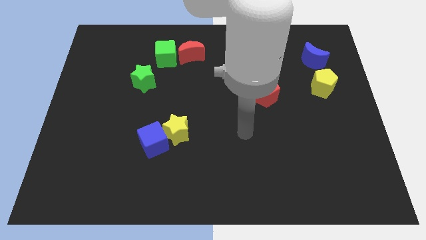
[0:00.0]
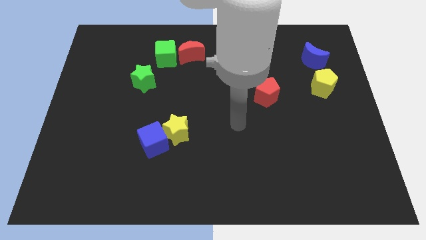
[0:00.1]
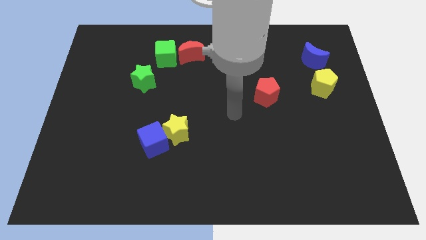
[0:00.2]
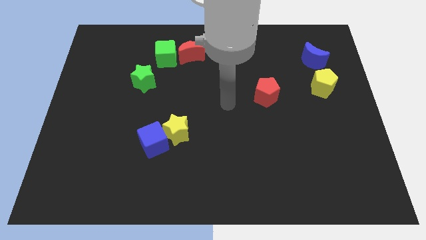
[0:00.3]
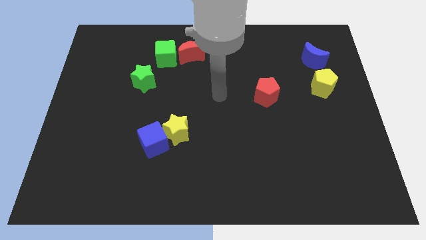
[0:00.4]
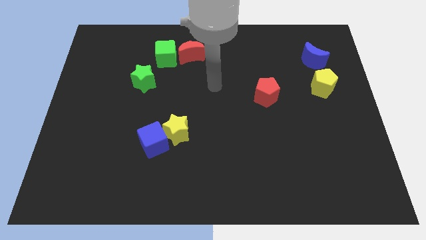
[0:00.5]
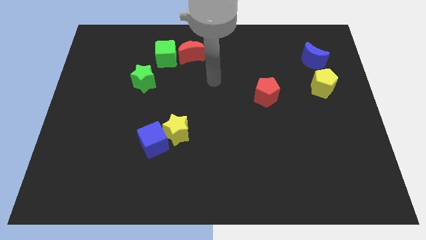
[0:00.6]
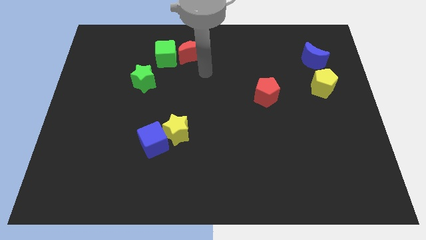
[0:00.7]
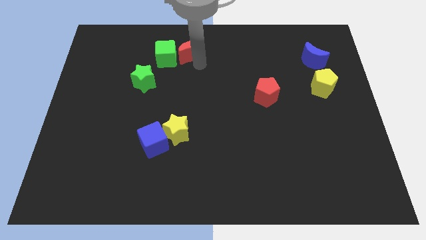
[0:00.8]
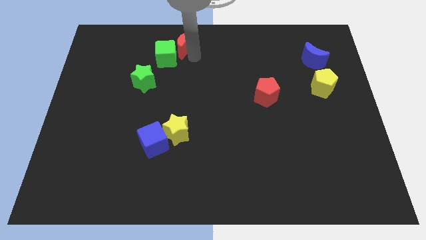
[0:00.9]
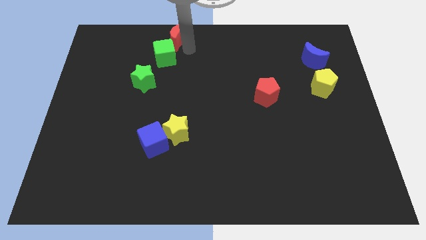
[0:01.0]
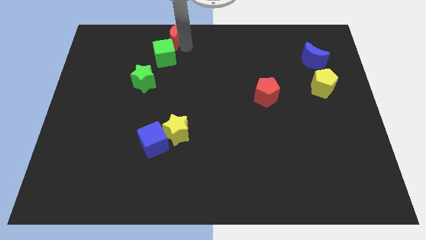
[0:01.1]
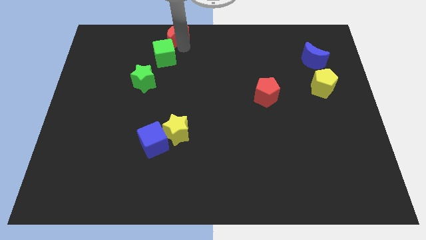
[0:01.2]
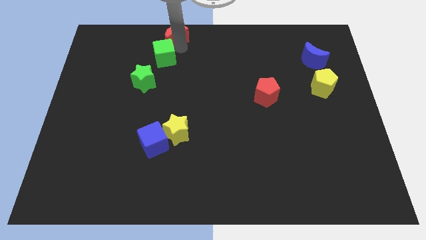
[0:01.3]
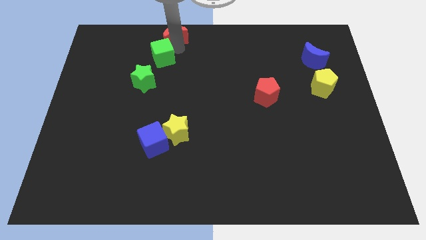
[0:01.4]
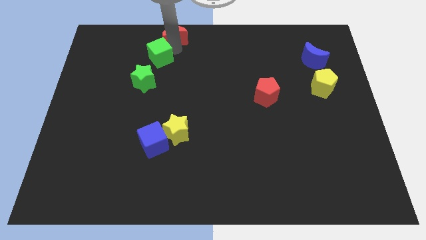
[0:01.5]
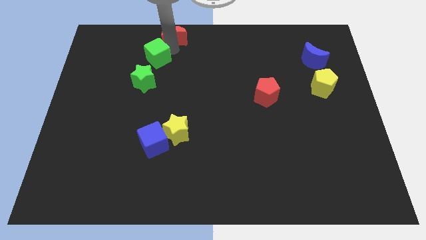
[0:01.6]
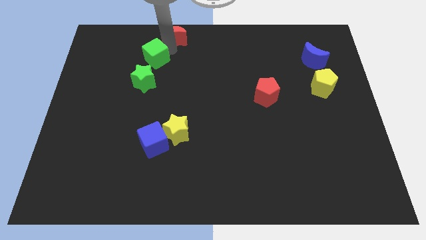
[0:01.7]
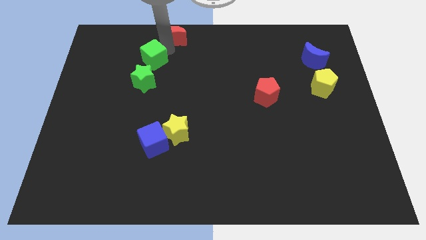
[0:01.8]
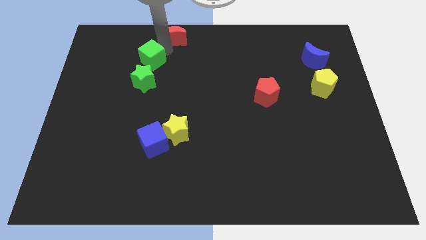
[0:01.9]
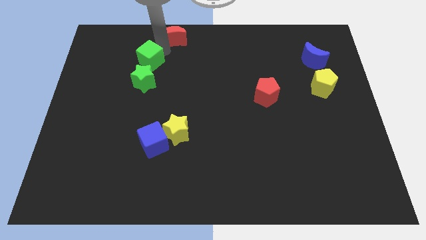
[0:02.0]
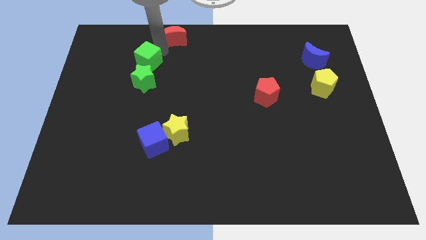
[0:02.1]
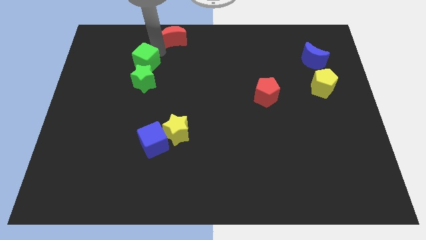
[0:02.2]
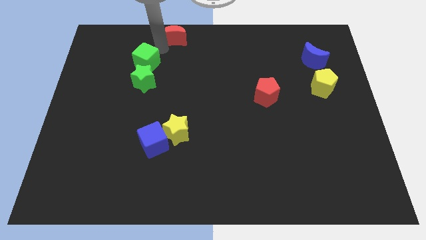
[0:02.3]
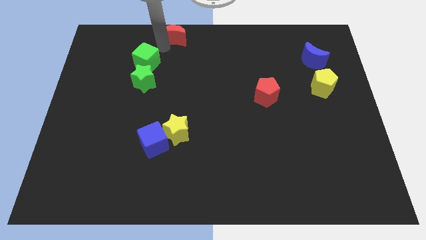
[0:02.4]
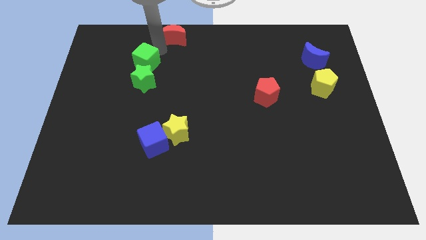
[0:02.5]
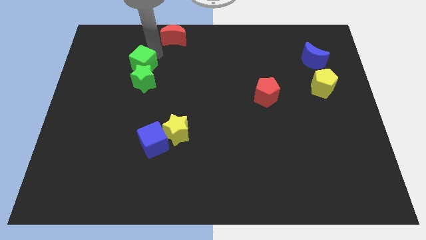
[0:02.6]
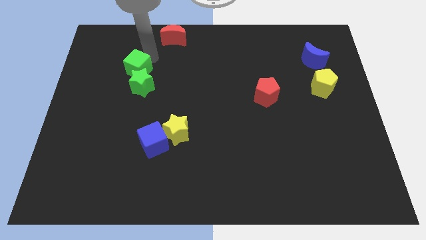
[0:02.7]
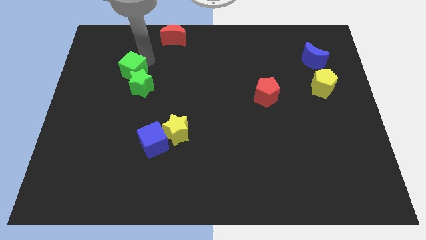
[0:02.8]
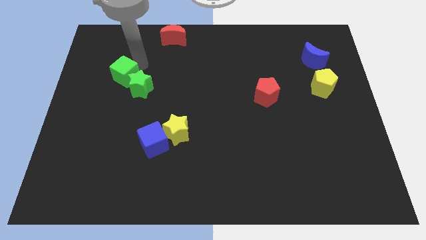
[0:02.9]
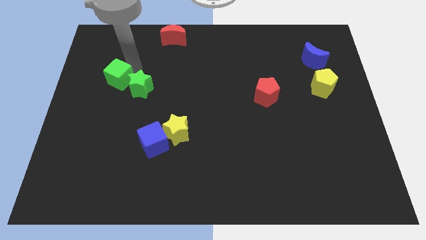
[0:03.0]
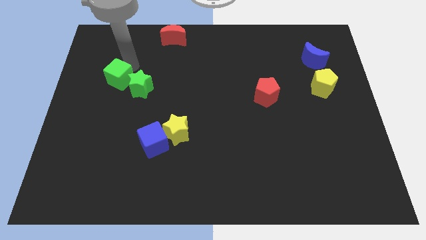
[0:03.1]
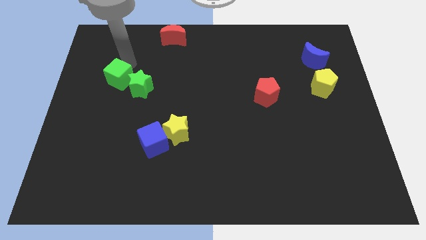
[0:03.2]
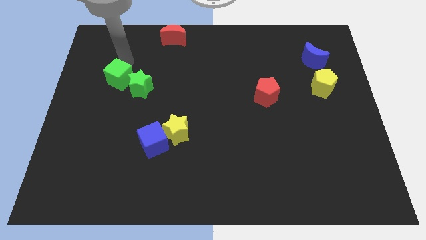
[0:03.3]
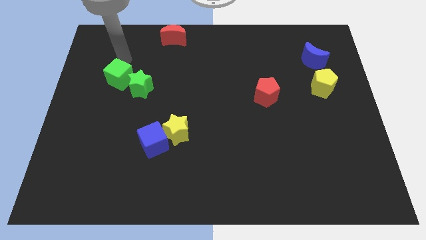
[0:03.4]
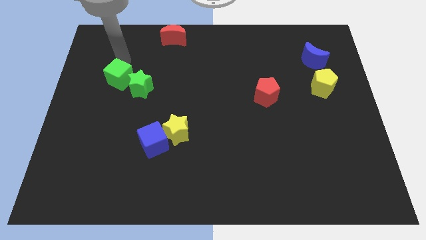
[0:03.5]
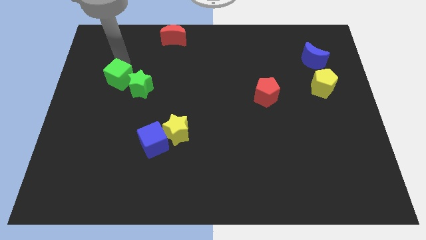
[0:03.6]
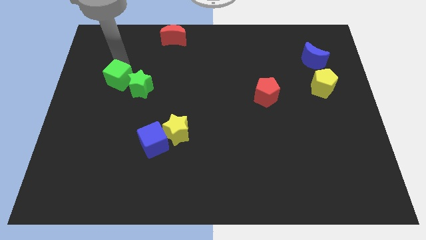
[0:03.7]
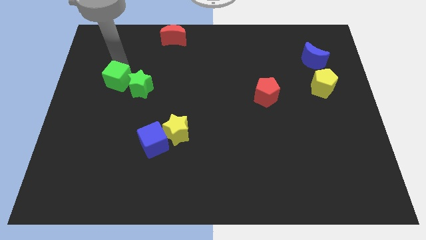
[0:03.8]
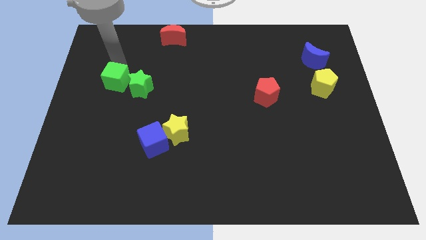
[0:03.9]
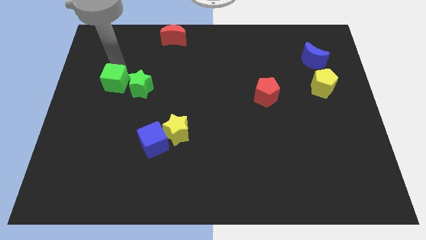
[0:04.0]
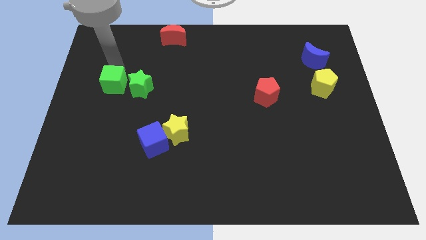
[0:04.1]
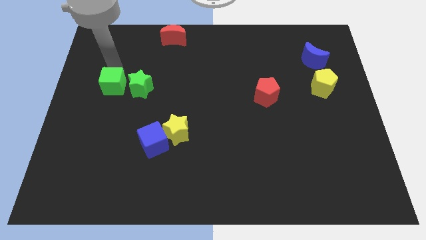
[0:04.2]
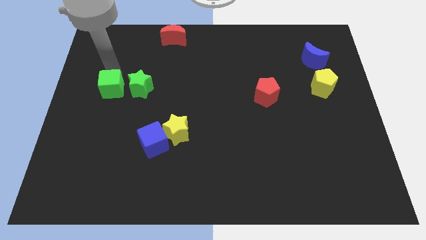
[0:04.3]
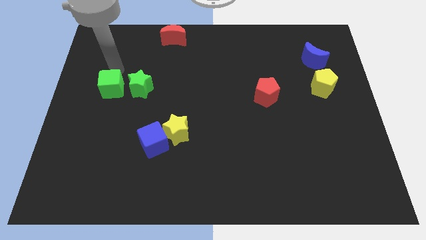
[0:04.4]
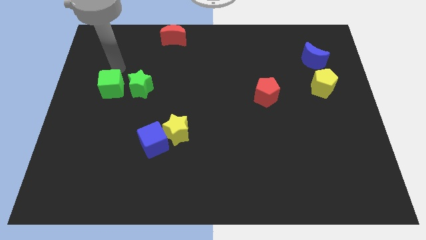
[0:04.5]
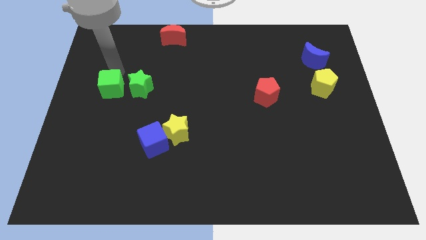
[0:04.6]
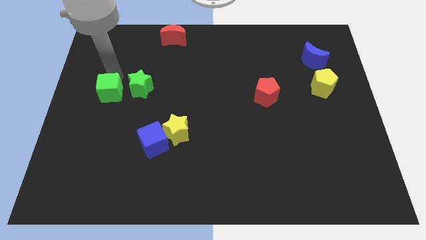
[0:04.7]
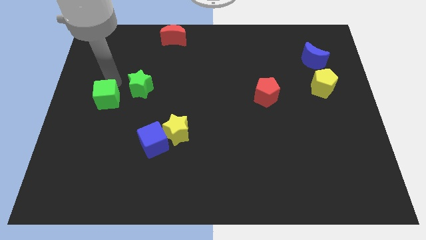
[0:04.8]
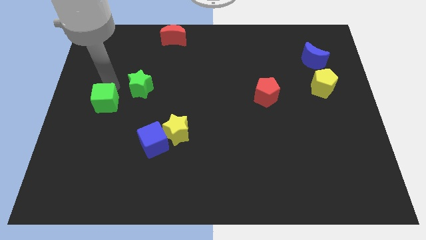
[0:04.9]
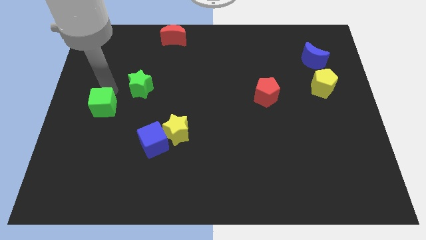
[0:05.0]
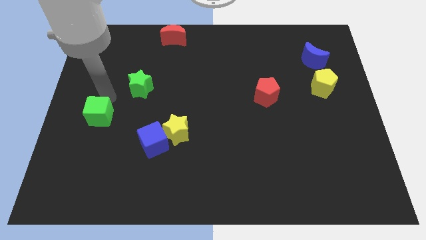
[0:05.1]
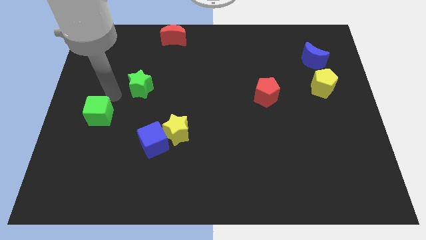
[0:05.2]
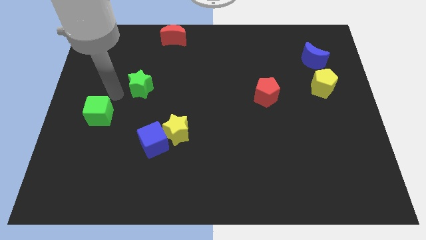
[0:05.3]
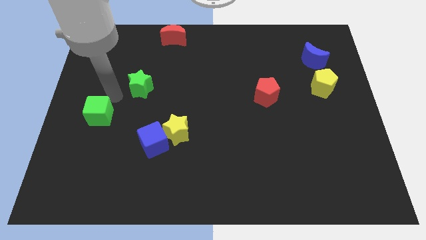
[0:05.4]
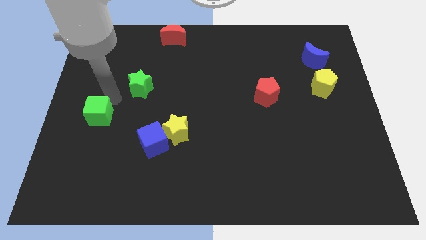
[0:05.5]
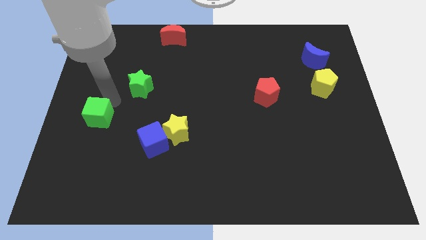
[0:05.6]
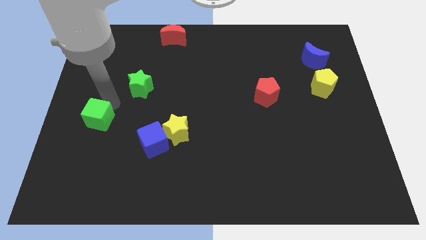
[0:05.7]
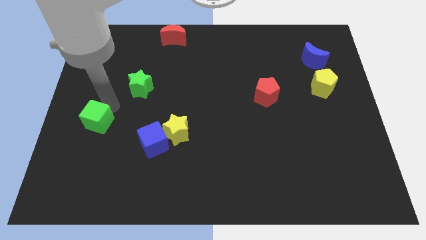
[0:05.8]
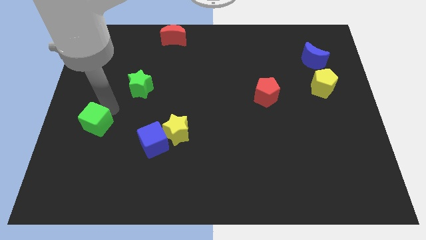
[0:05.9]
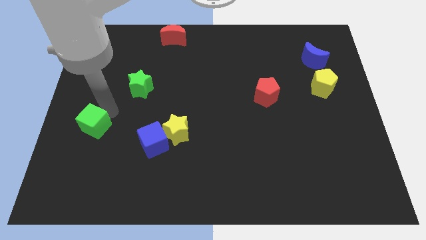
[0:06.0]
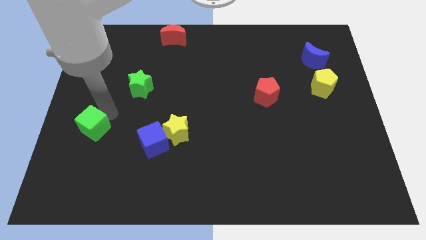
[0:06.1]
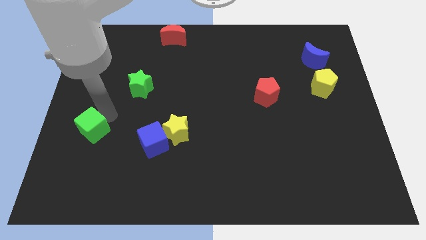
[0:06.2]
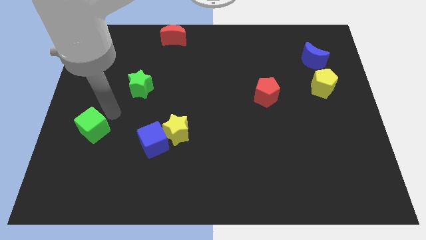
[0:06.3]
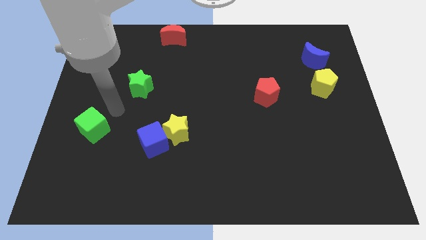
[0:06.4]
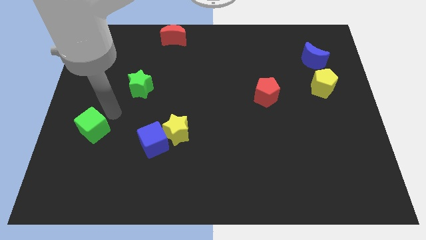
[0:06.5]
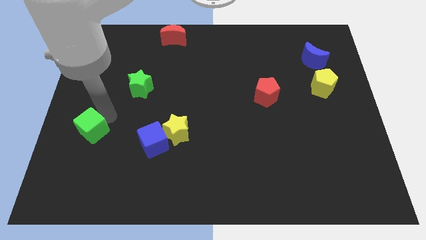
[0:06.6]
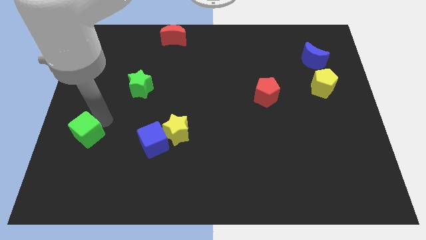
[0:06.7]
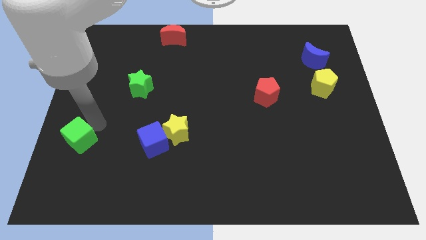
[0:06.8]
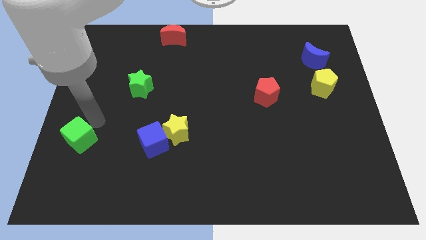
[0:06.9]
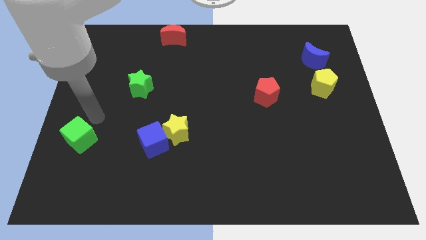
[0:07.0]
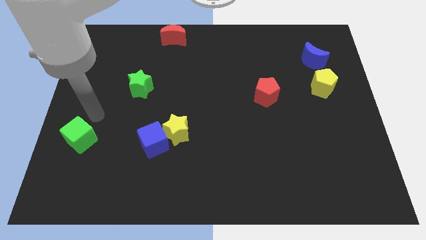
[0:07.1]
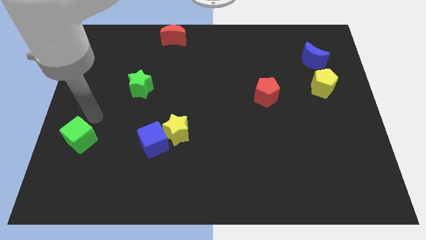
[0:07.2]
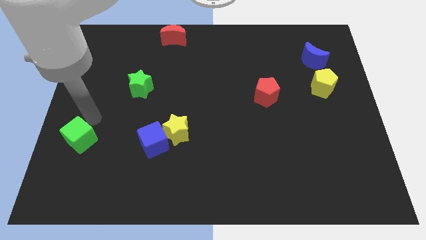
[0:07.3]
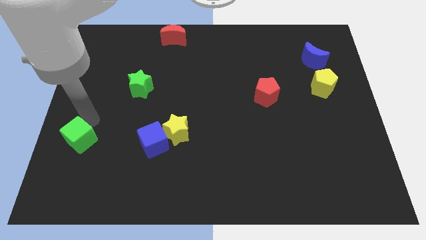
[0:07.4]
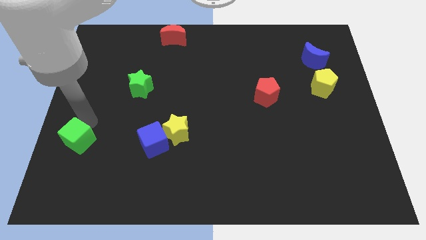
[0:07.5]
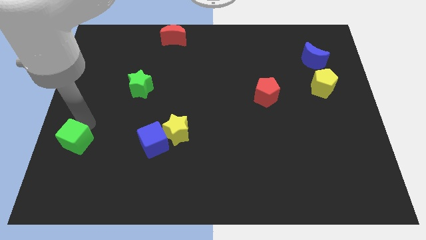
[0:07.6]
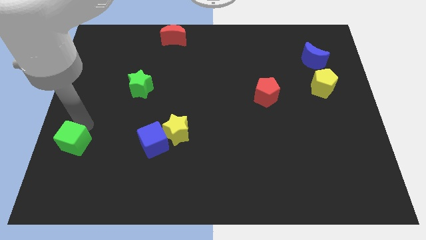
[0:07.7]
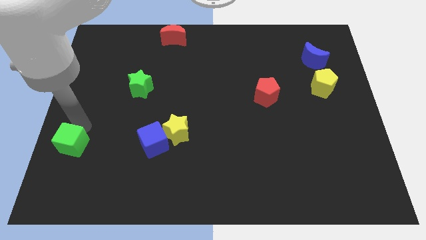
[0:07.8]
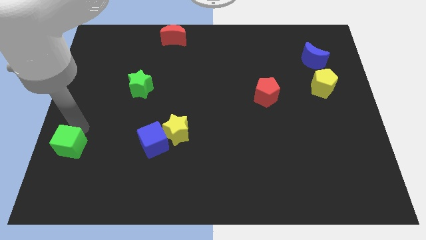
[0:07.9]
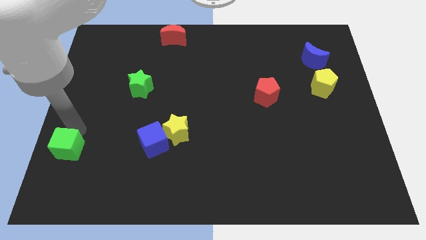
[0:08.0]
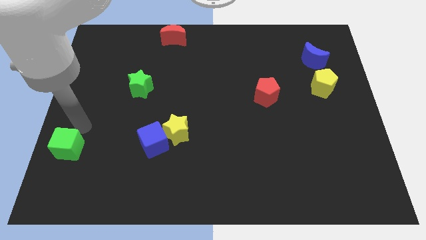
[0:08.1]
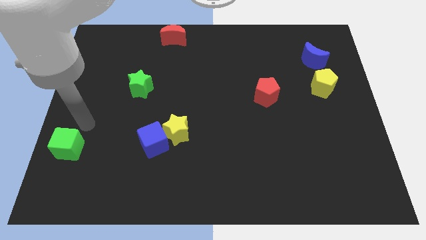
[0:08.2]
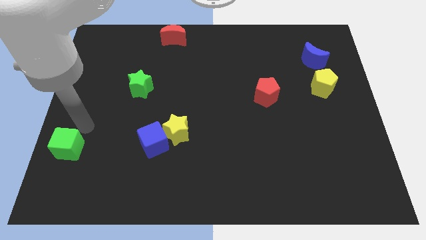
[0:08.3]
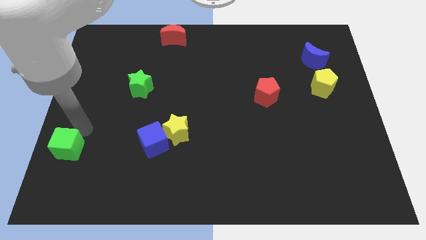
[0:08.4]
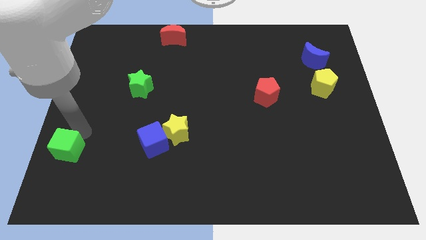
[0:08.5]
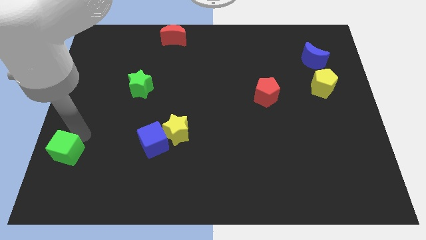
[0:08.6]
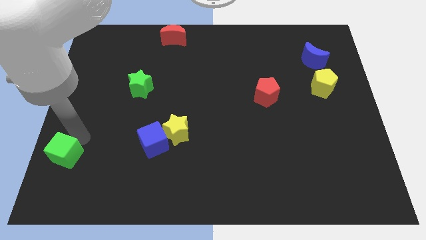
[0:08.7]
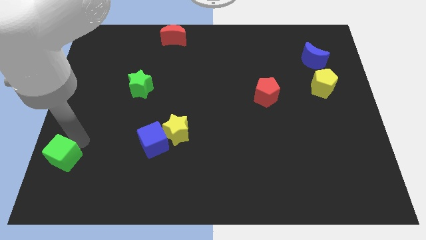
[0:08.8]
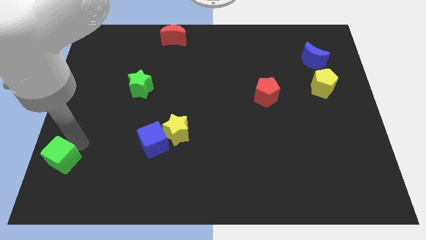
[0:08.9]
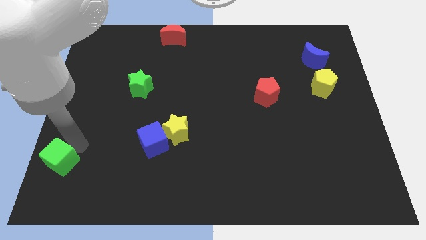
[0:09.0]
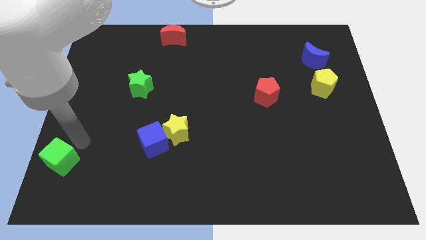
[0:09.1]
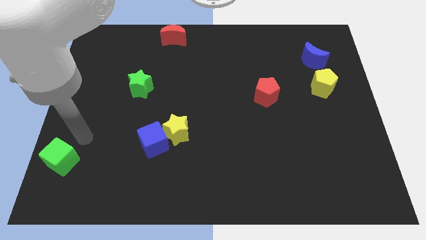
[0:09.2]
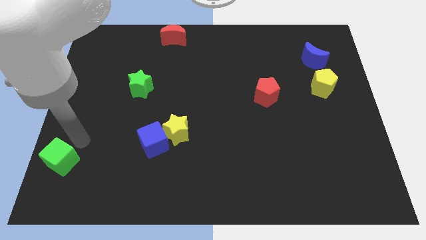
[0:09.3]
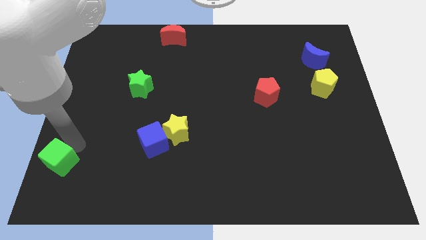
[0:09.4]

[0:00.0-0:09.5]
put the green cube to the bottom left corner
